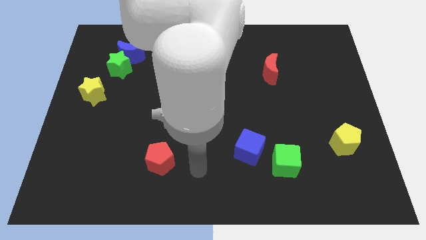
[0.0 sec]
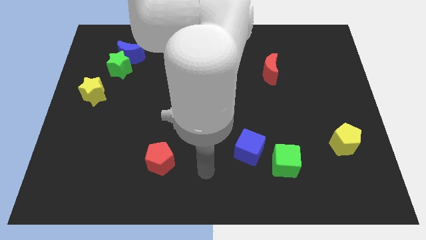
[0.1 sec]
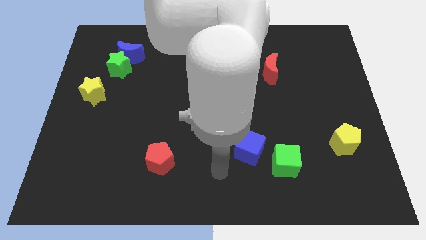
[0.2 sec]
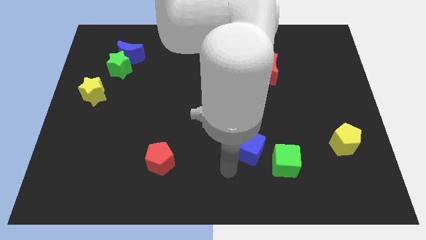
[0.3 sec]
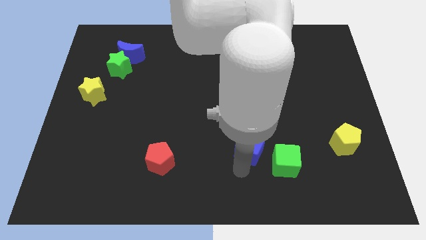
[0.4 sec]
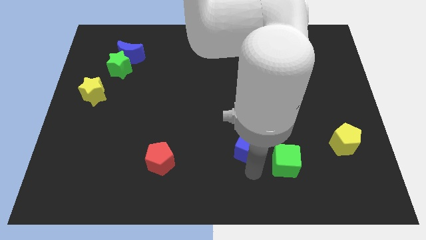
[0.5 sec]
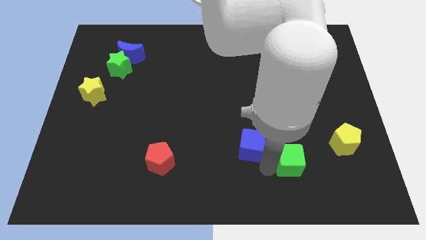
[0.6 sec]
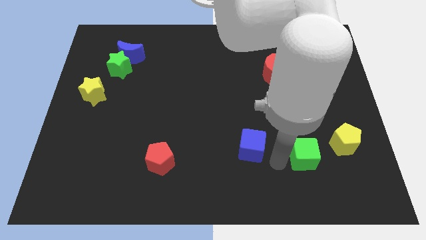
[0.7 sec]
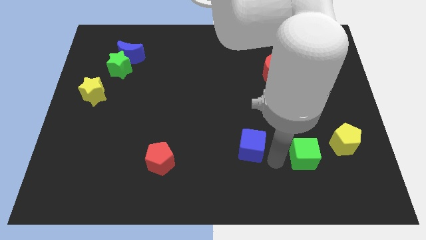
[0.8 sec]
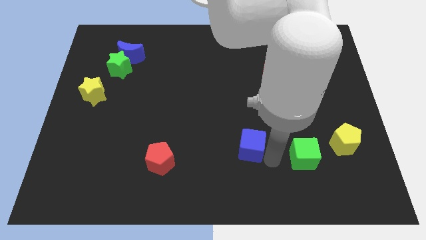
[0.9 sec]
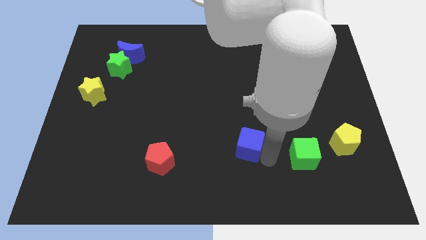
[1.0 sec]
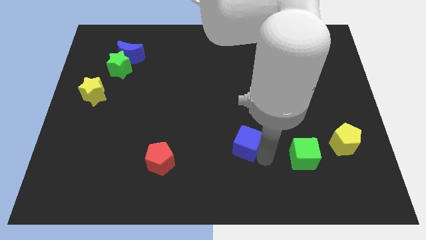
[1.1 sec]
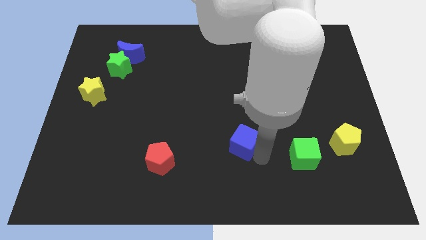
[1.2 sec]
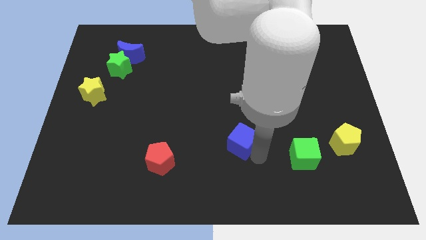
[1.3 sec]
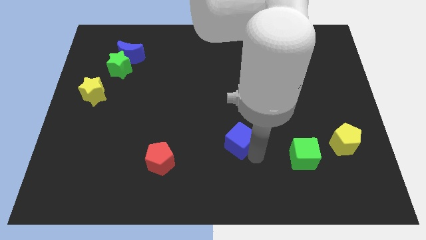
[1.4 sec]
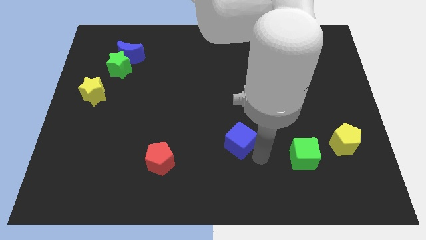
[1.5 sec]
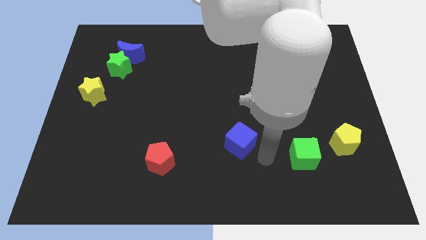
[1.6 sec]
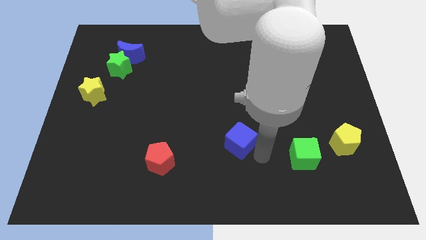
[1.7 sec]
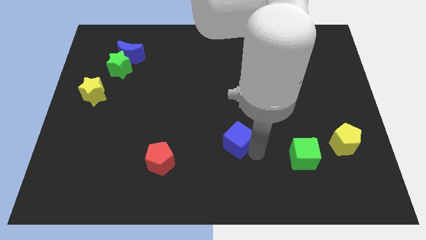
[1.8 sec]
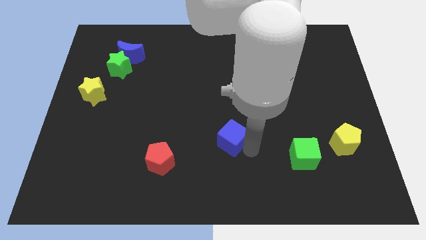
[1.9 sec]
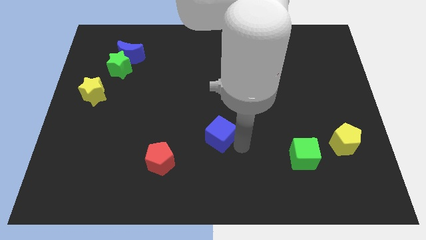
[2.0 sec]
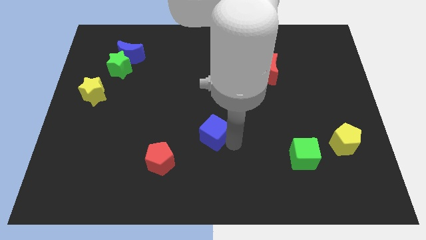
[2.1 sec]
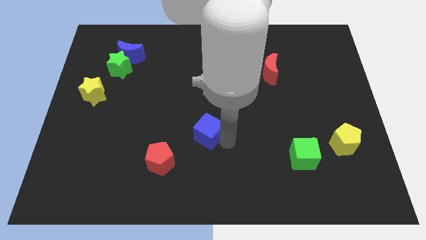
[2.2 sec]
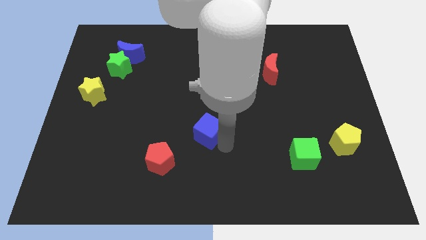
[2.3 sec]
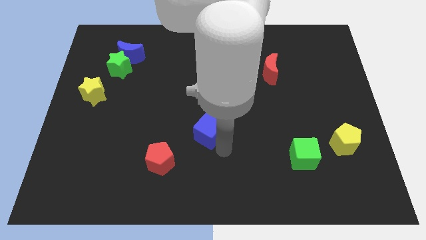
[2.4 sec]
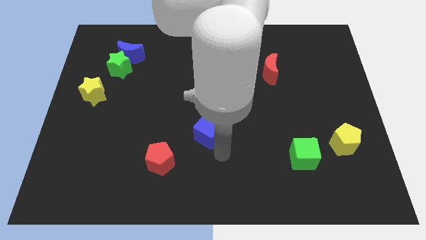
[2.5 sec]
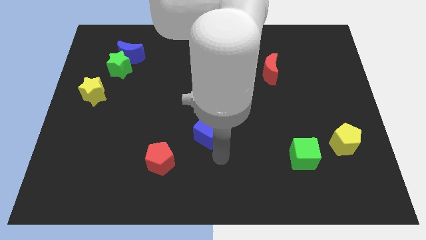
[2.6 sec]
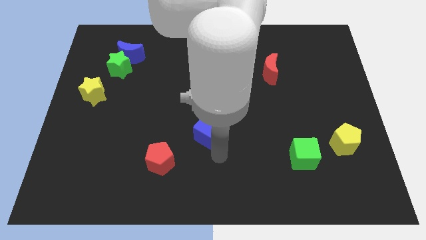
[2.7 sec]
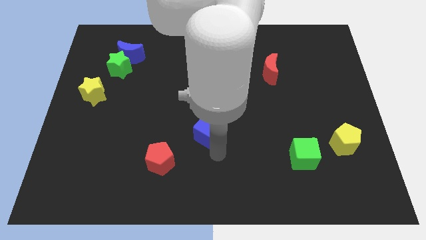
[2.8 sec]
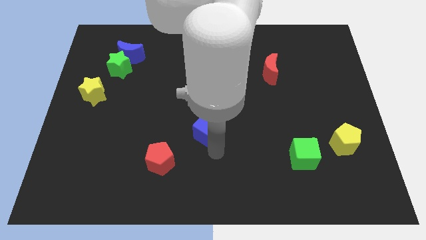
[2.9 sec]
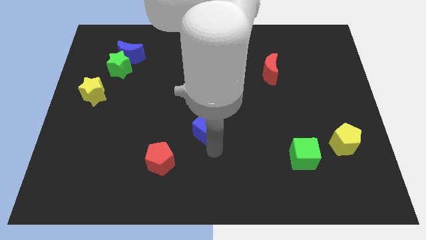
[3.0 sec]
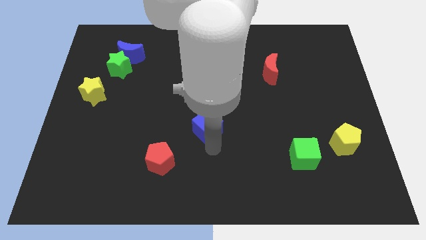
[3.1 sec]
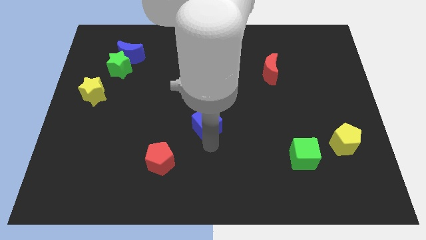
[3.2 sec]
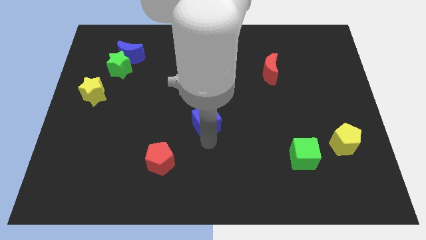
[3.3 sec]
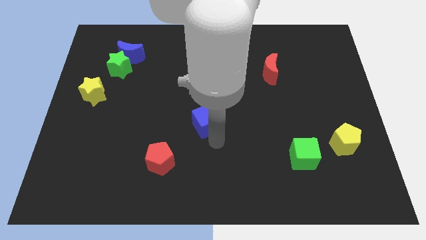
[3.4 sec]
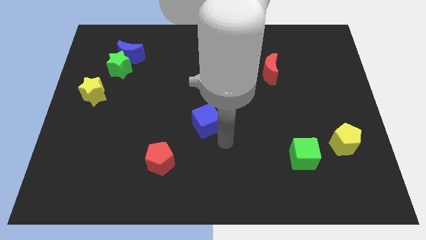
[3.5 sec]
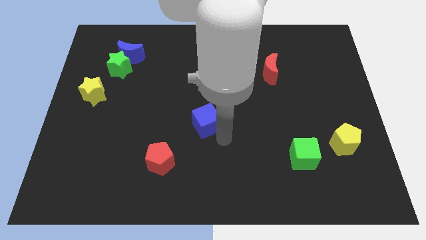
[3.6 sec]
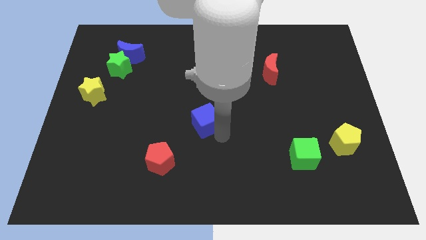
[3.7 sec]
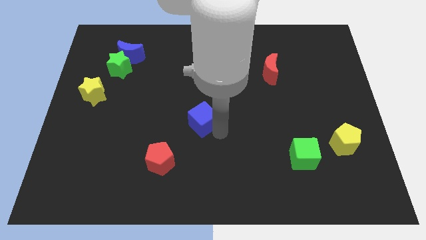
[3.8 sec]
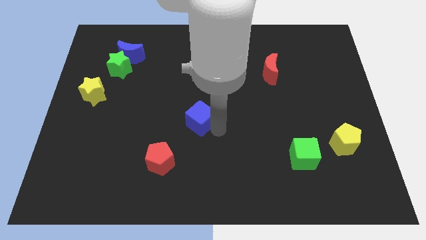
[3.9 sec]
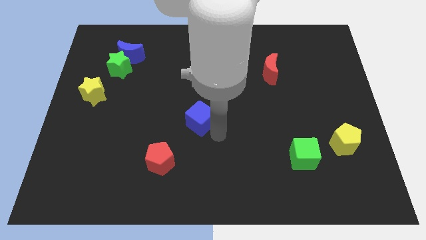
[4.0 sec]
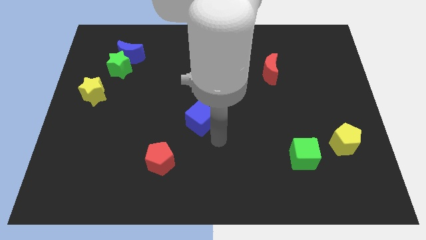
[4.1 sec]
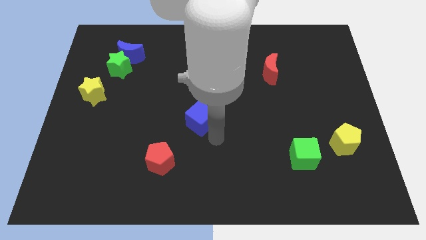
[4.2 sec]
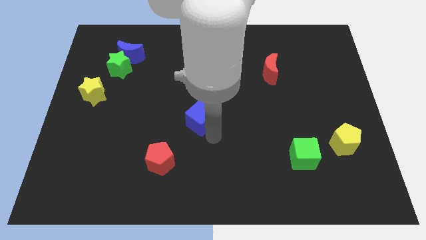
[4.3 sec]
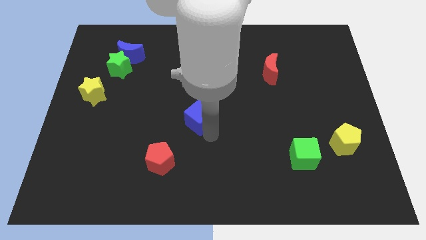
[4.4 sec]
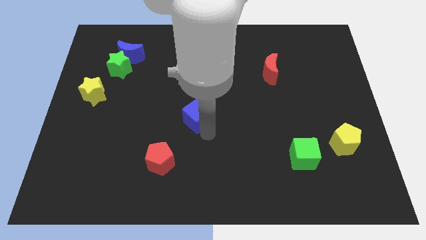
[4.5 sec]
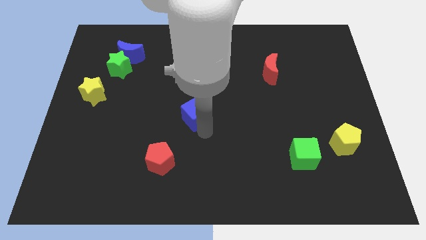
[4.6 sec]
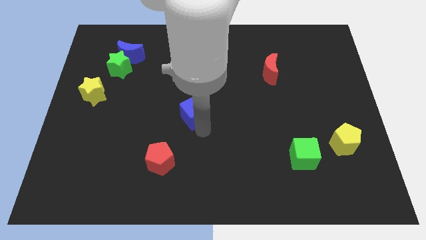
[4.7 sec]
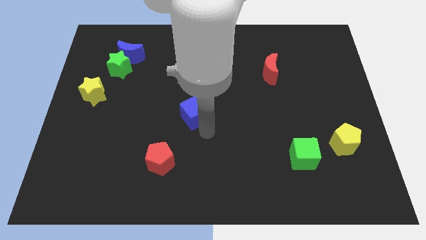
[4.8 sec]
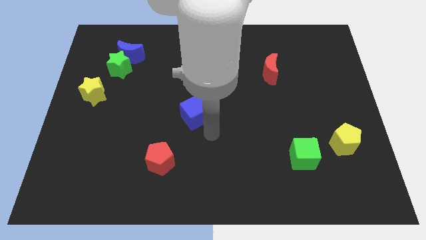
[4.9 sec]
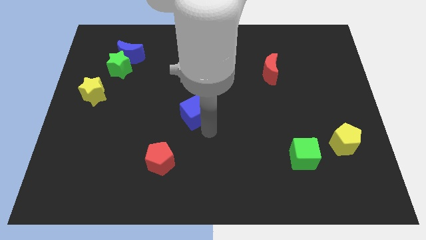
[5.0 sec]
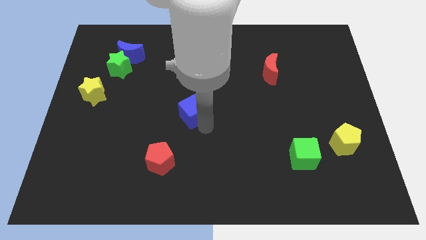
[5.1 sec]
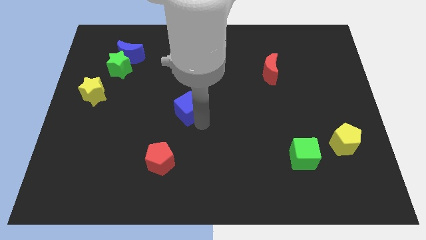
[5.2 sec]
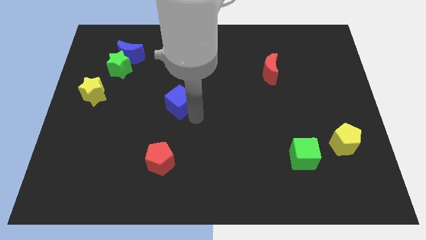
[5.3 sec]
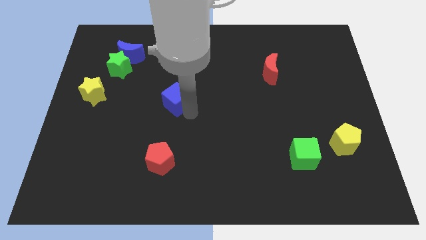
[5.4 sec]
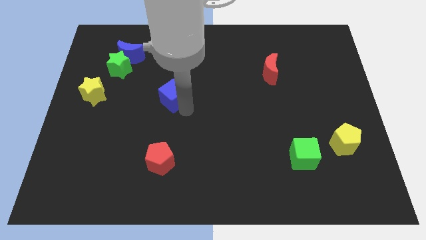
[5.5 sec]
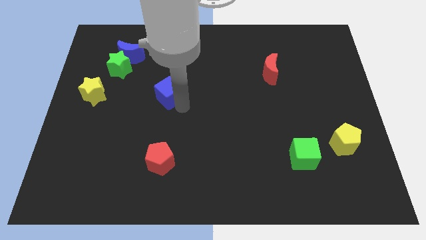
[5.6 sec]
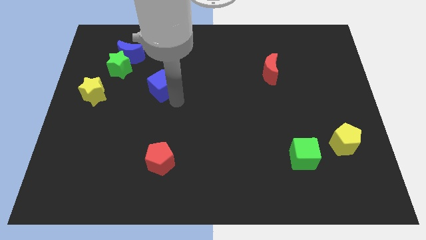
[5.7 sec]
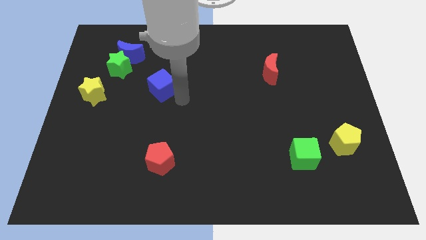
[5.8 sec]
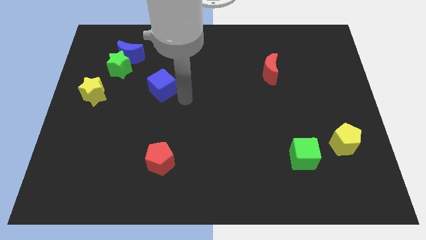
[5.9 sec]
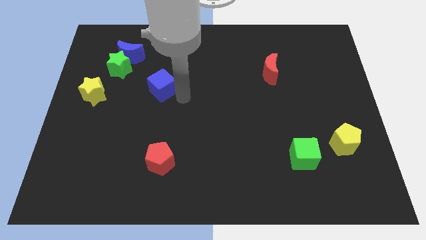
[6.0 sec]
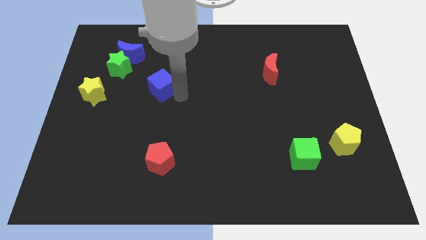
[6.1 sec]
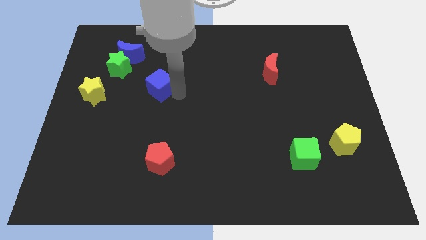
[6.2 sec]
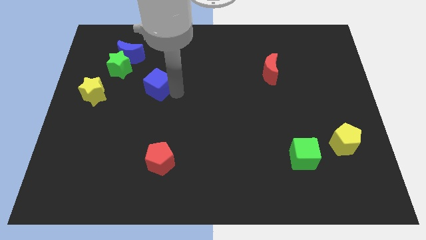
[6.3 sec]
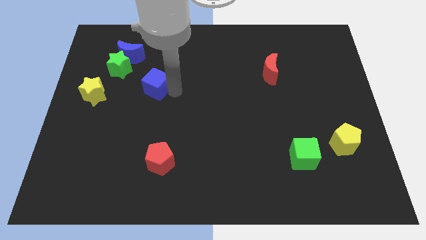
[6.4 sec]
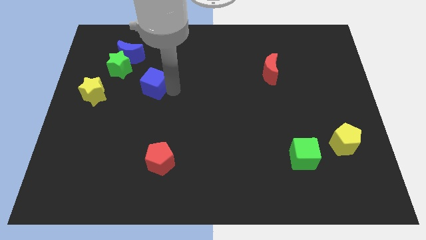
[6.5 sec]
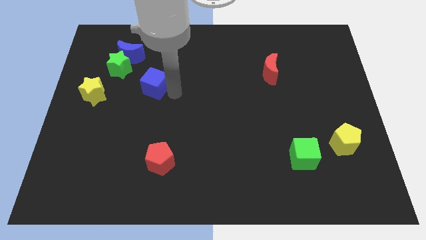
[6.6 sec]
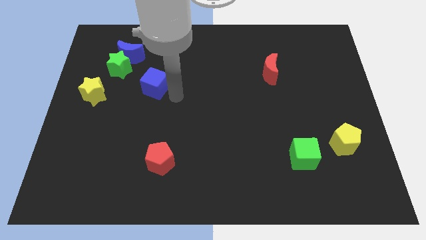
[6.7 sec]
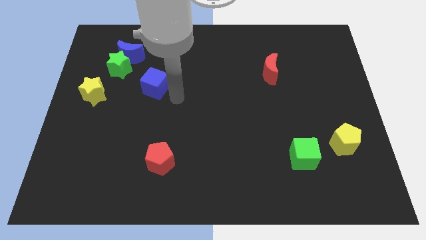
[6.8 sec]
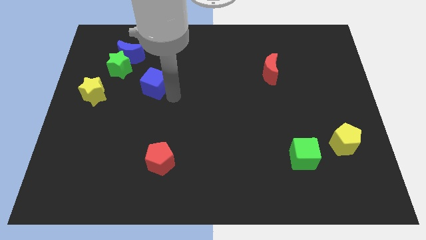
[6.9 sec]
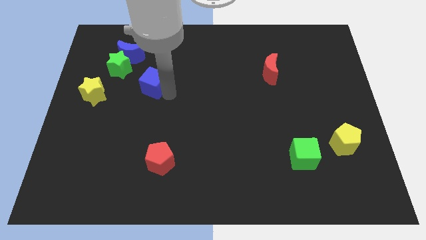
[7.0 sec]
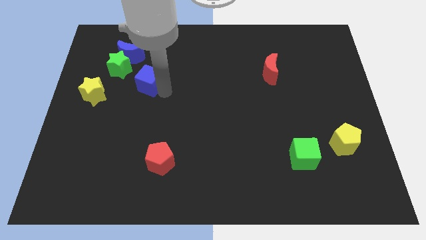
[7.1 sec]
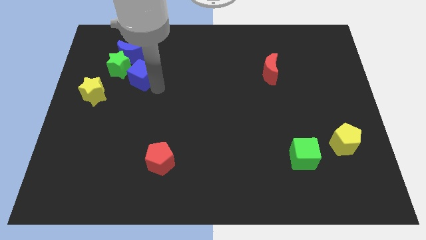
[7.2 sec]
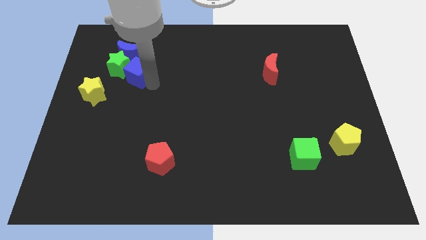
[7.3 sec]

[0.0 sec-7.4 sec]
put the blue cube close to the green star

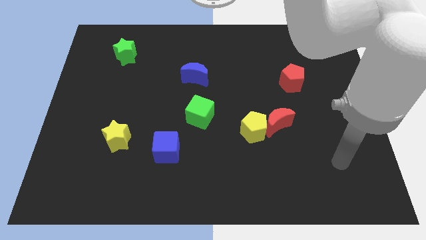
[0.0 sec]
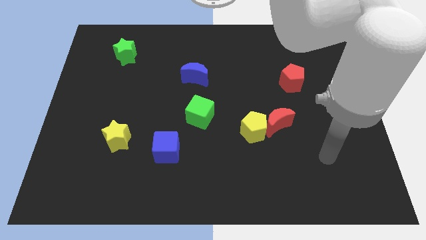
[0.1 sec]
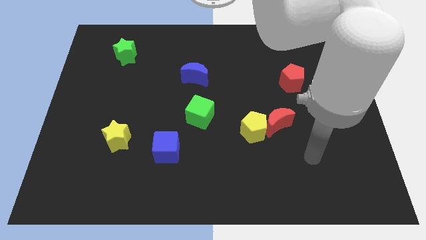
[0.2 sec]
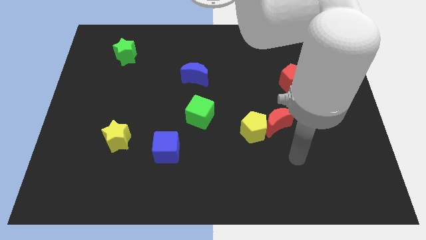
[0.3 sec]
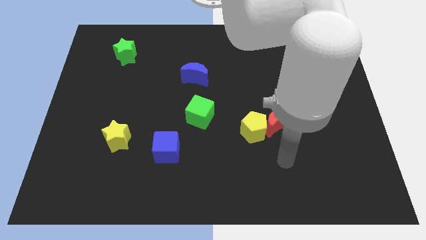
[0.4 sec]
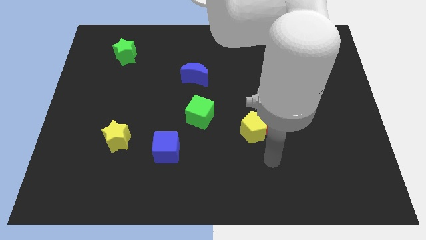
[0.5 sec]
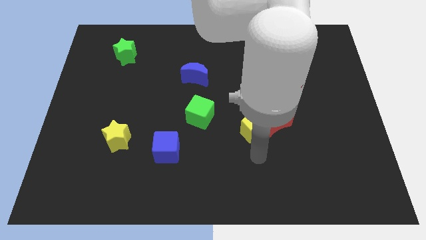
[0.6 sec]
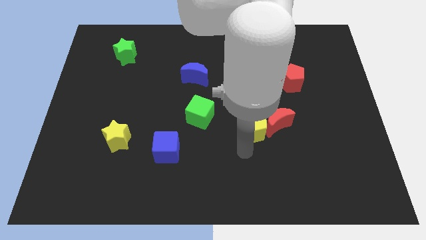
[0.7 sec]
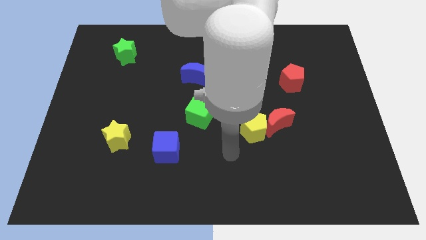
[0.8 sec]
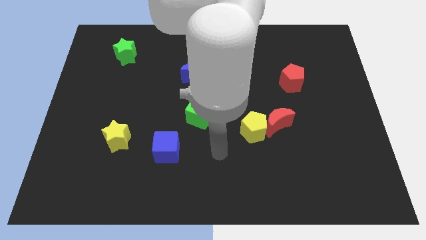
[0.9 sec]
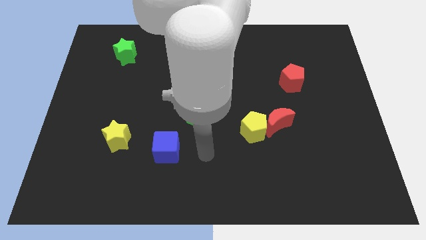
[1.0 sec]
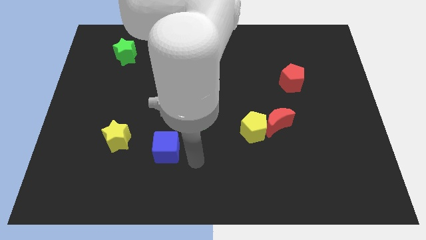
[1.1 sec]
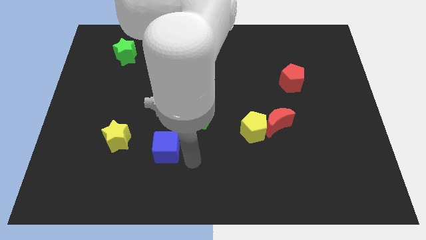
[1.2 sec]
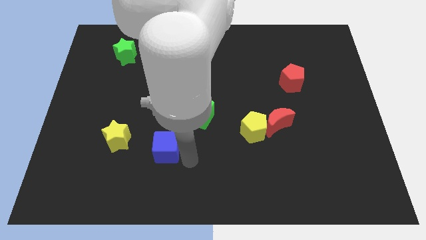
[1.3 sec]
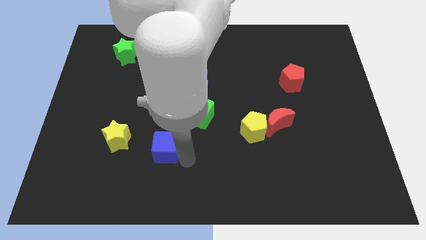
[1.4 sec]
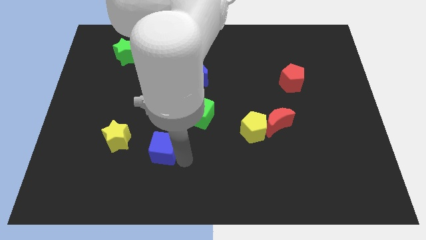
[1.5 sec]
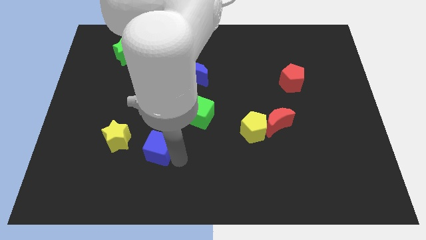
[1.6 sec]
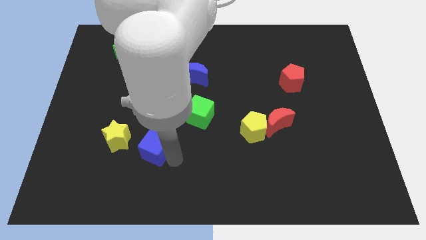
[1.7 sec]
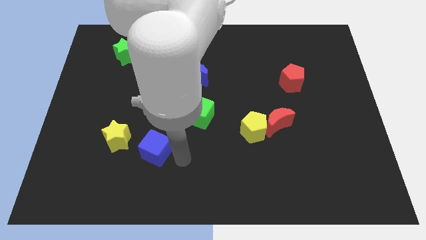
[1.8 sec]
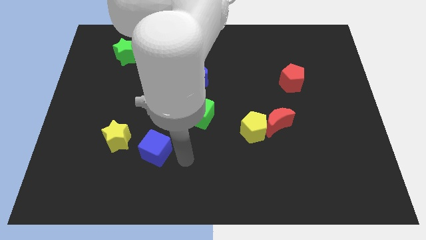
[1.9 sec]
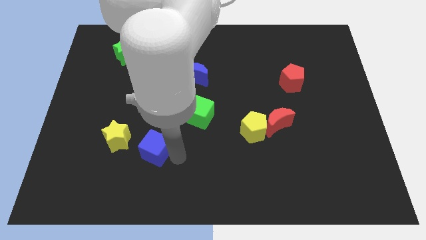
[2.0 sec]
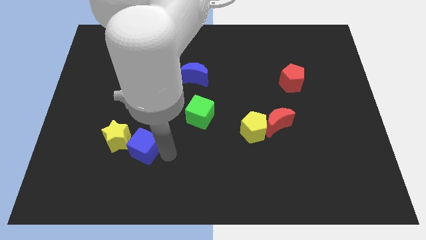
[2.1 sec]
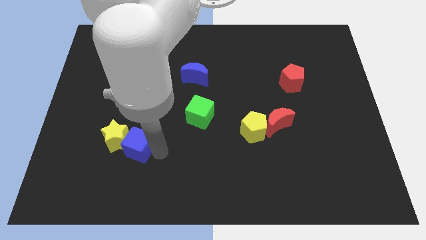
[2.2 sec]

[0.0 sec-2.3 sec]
push the blue cube close to the yellow star
